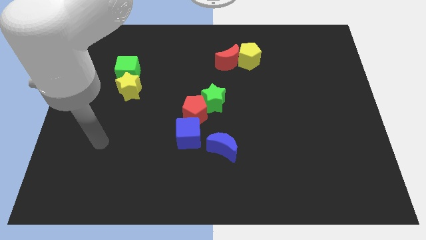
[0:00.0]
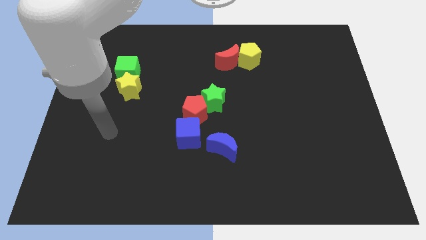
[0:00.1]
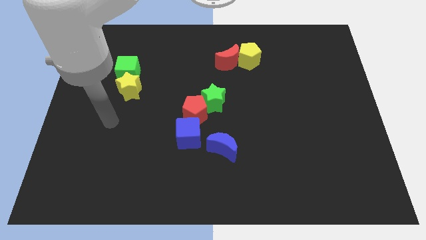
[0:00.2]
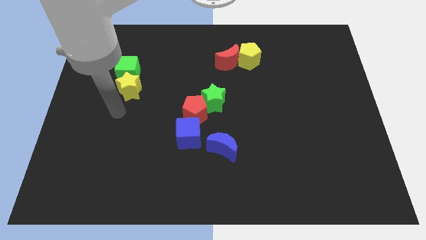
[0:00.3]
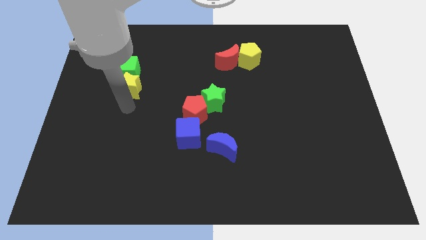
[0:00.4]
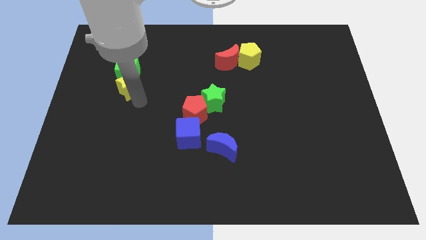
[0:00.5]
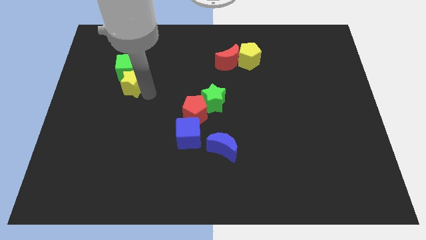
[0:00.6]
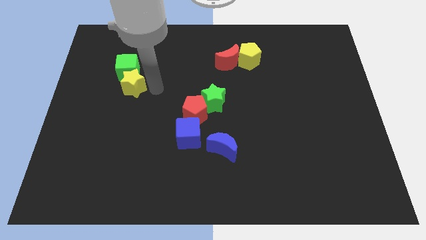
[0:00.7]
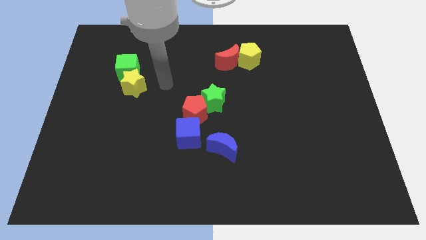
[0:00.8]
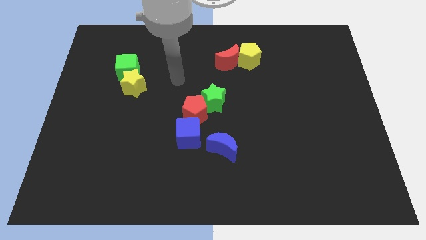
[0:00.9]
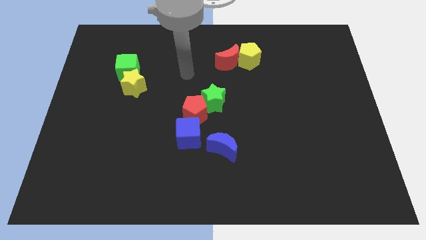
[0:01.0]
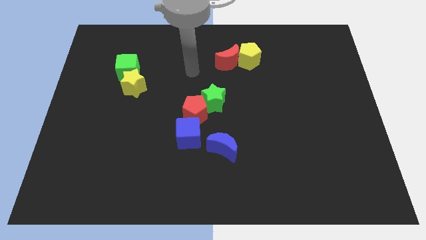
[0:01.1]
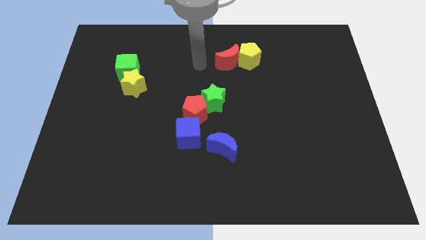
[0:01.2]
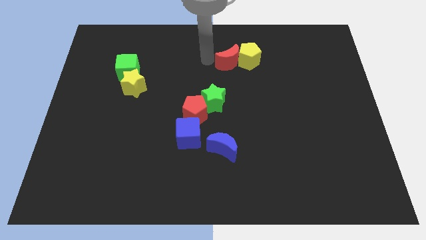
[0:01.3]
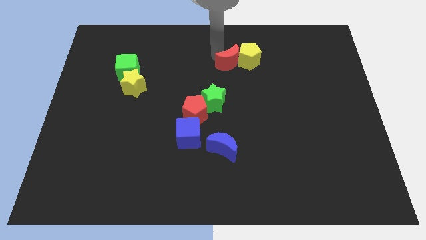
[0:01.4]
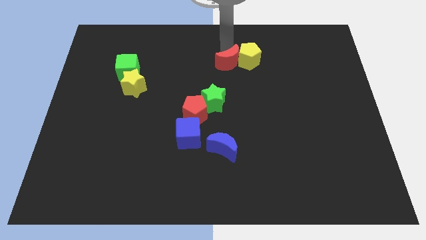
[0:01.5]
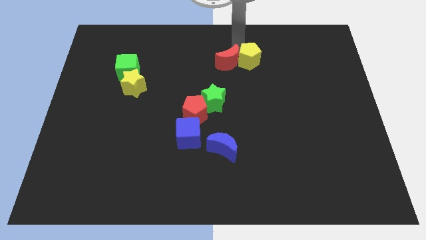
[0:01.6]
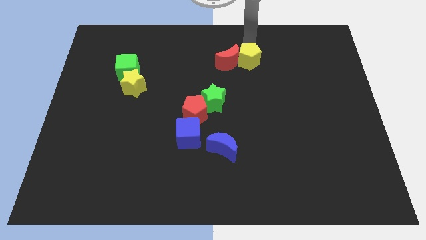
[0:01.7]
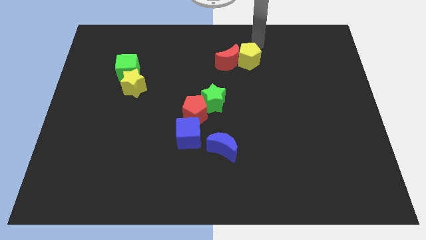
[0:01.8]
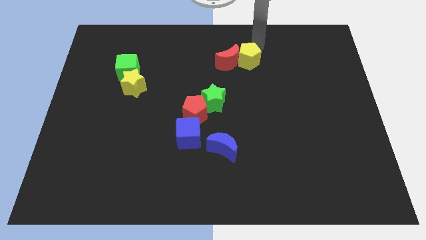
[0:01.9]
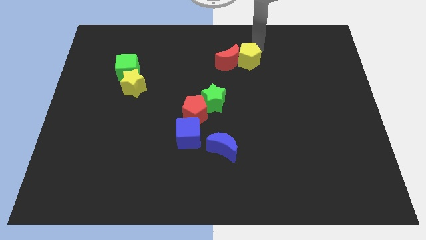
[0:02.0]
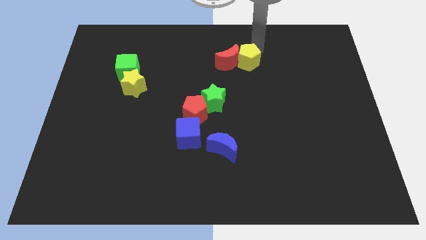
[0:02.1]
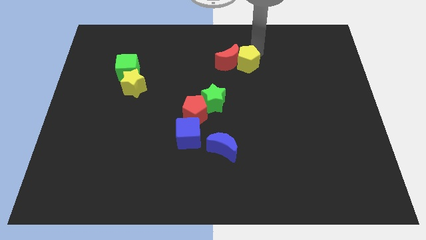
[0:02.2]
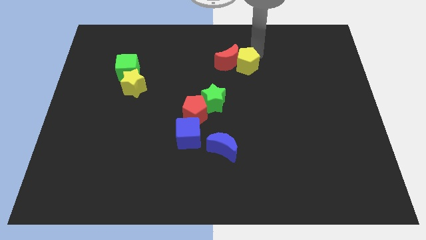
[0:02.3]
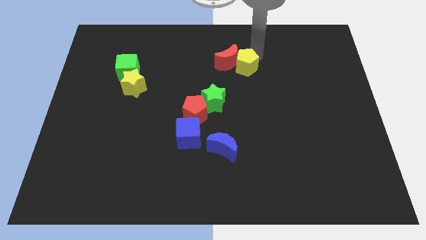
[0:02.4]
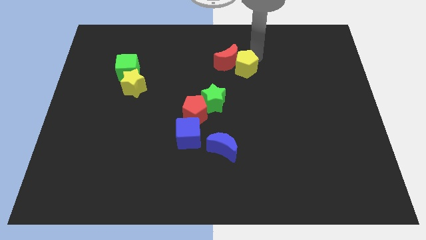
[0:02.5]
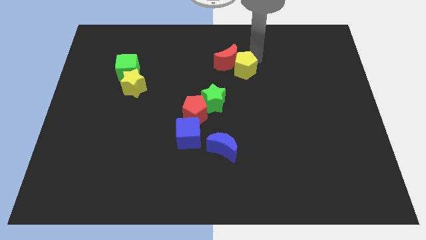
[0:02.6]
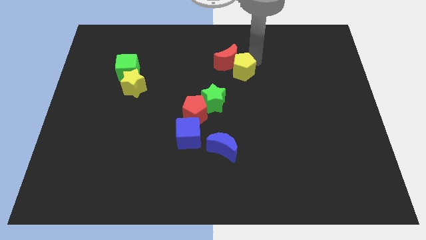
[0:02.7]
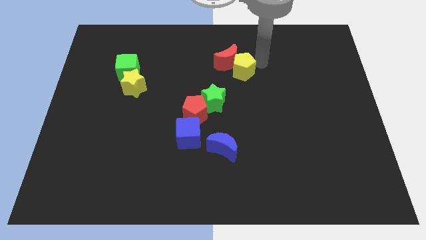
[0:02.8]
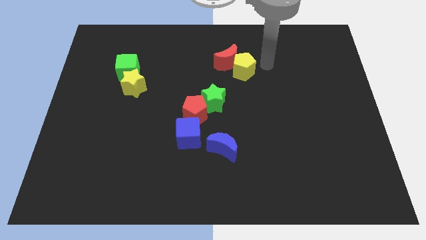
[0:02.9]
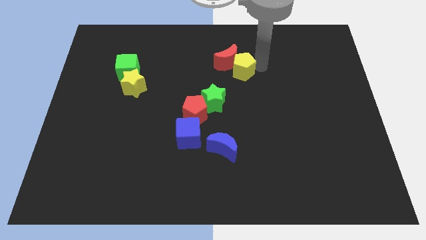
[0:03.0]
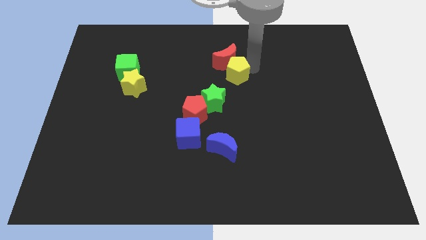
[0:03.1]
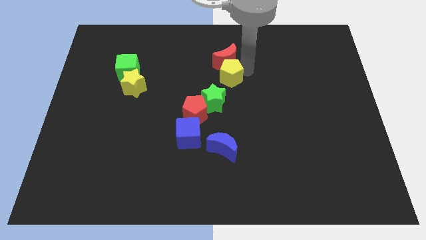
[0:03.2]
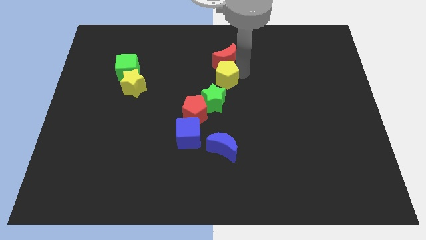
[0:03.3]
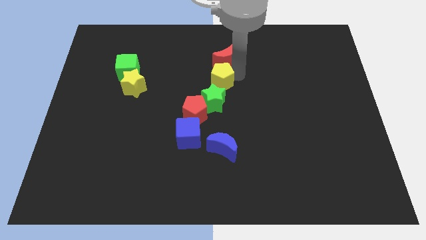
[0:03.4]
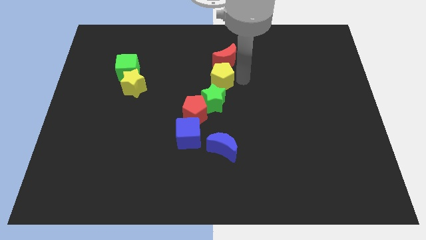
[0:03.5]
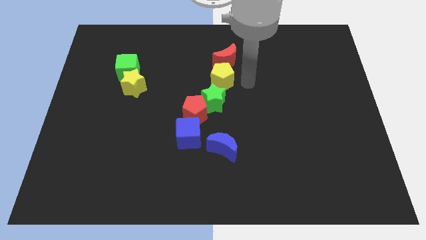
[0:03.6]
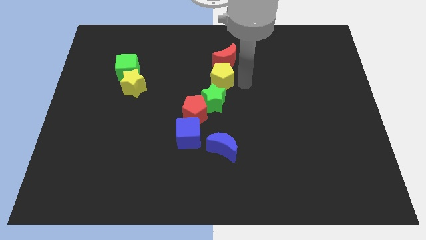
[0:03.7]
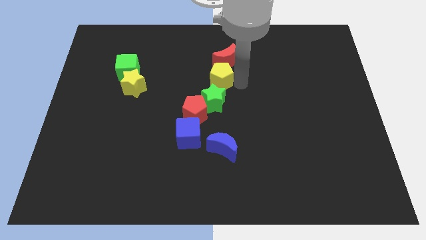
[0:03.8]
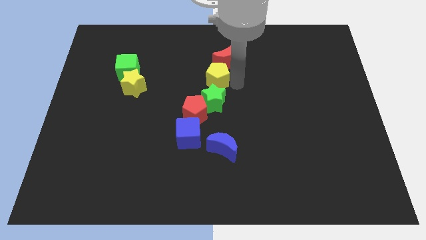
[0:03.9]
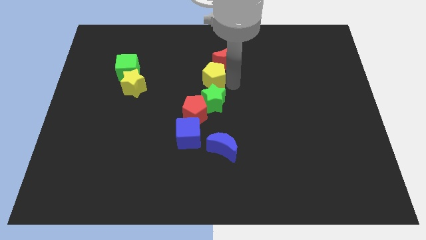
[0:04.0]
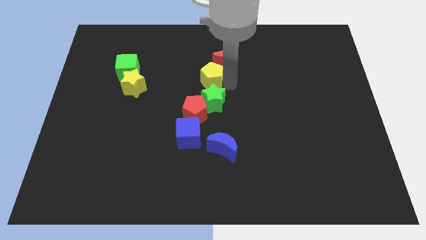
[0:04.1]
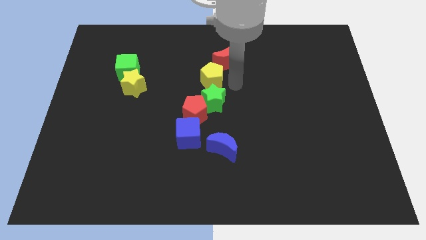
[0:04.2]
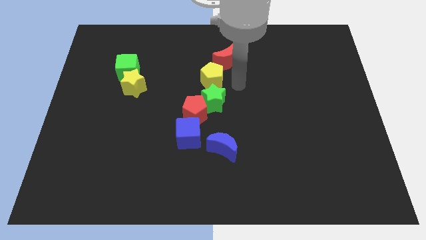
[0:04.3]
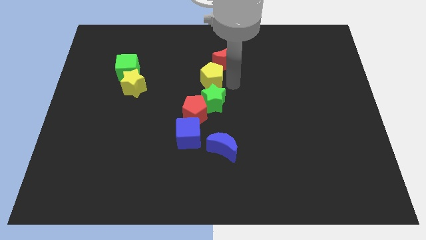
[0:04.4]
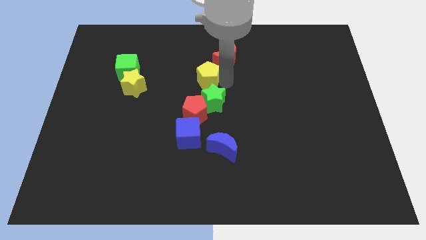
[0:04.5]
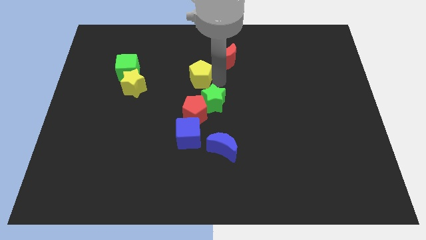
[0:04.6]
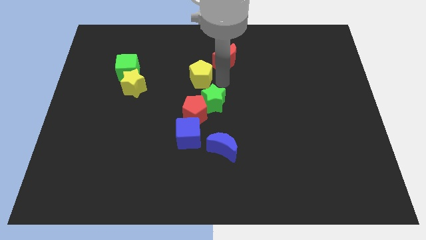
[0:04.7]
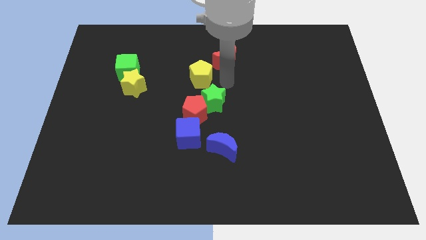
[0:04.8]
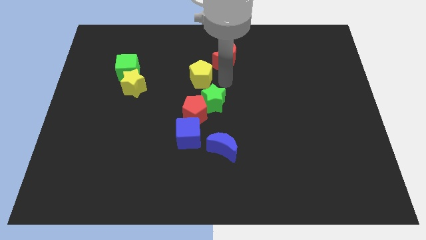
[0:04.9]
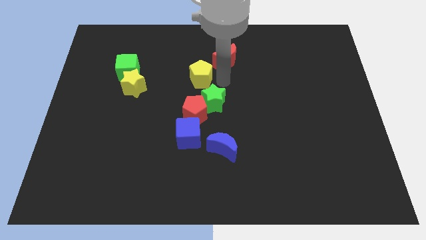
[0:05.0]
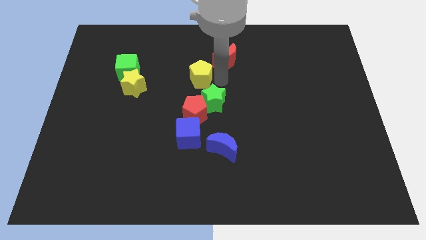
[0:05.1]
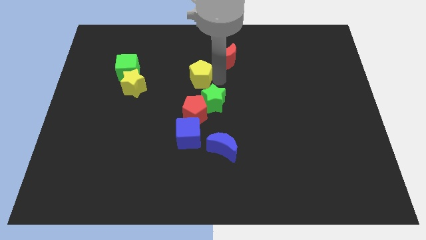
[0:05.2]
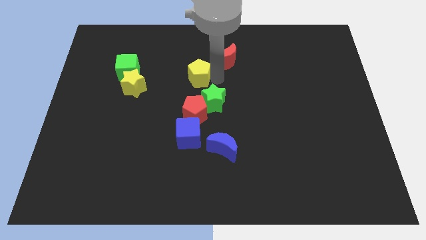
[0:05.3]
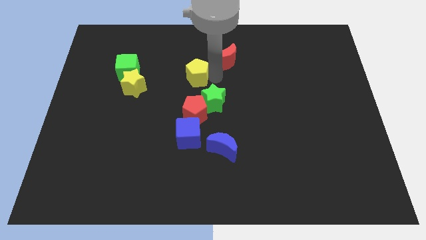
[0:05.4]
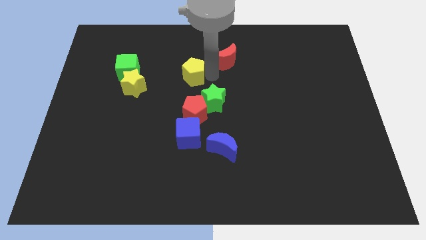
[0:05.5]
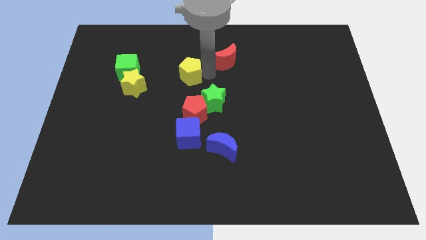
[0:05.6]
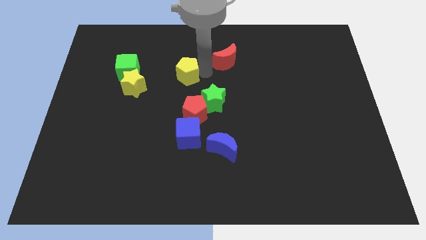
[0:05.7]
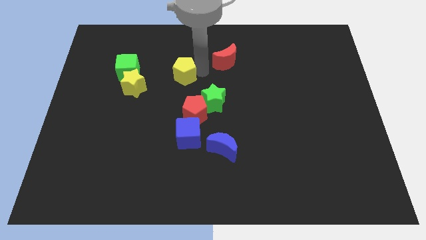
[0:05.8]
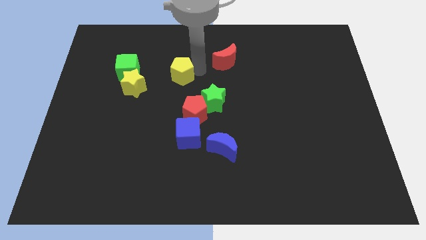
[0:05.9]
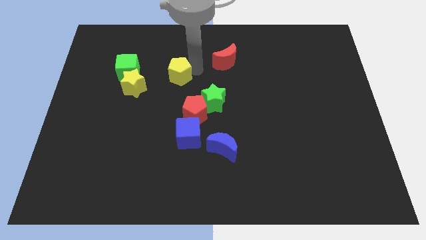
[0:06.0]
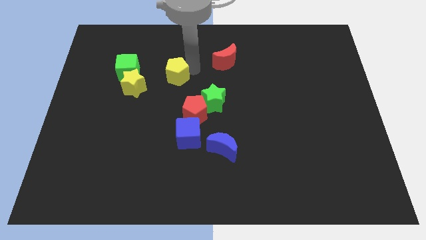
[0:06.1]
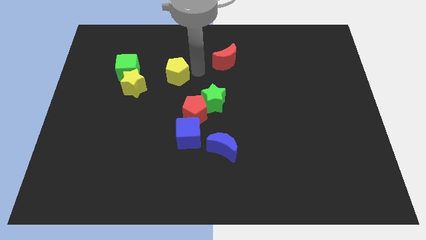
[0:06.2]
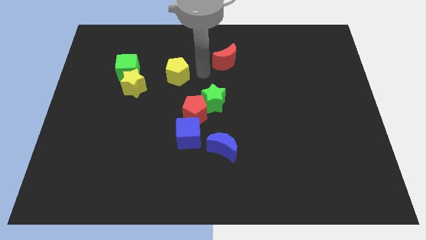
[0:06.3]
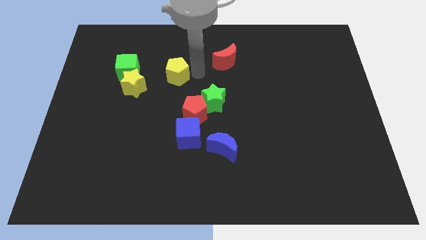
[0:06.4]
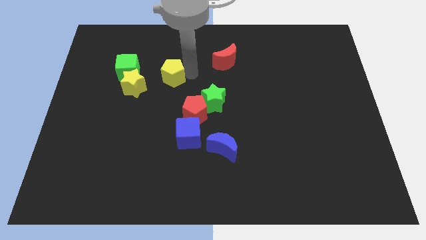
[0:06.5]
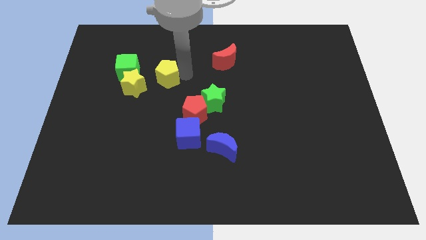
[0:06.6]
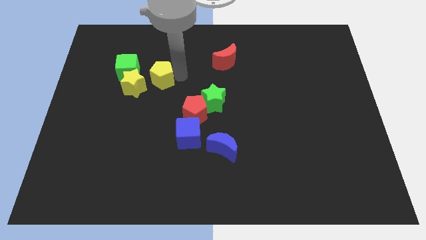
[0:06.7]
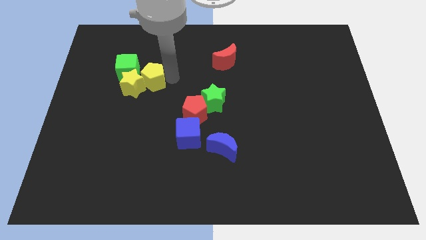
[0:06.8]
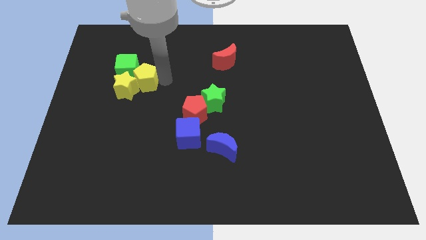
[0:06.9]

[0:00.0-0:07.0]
push the yellow pentagon to the green cube

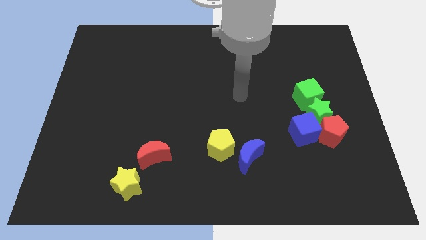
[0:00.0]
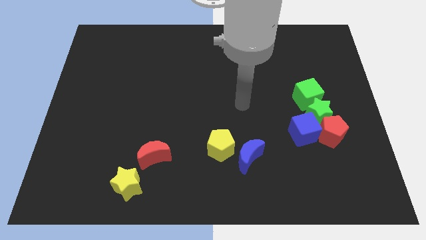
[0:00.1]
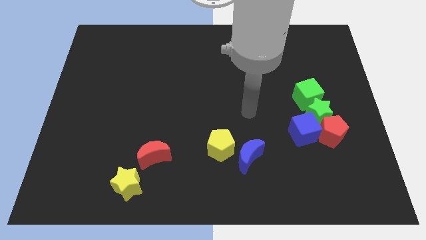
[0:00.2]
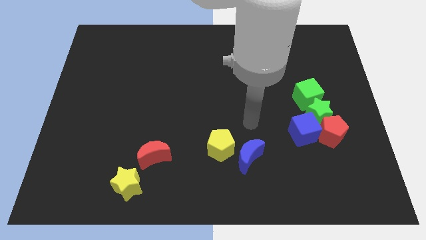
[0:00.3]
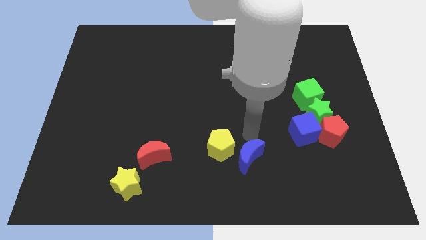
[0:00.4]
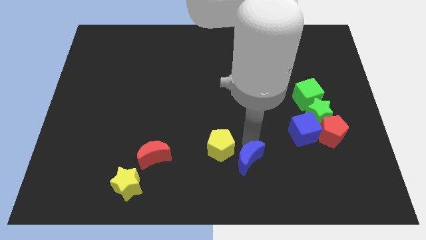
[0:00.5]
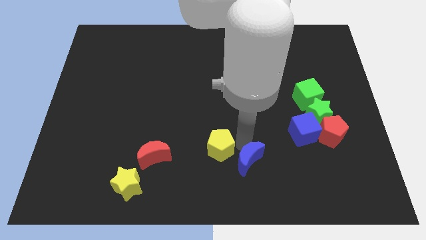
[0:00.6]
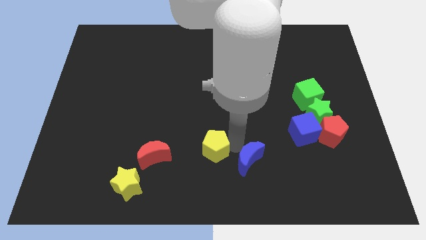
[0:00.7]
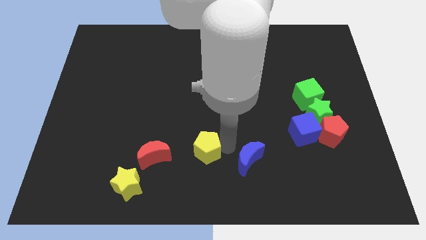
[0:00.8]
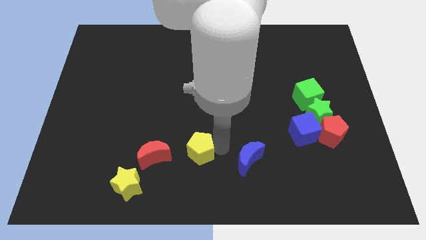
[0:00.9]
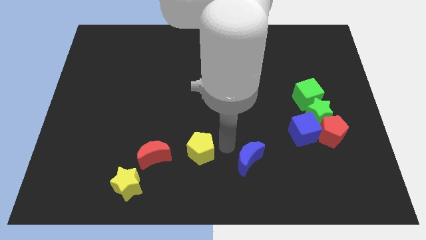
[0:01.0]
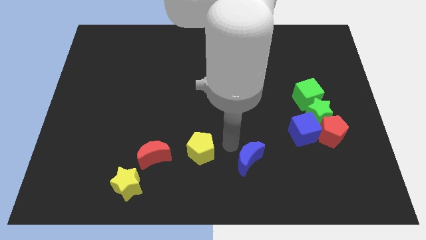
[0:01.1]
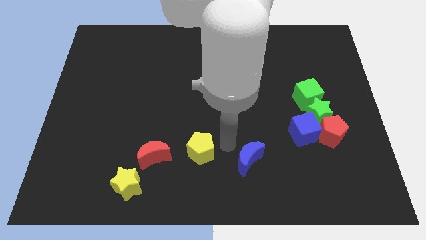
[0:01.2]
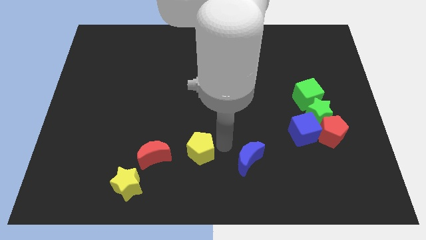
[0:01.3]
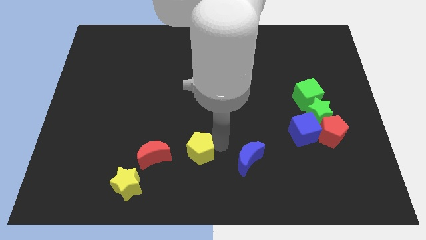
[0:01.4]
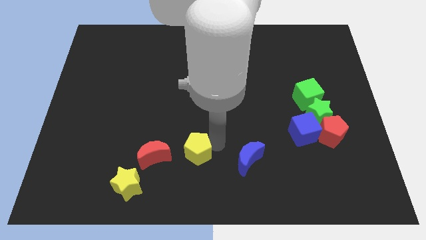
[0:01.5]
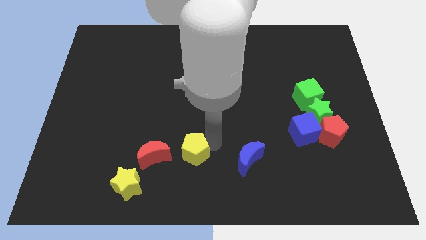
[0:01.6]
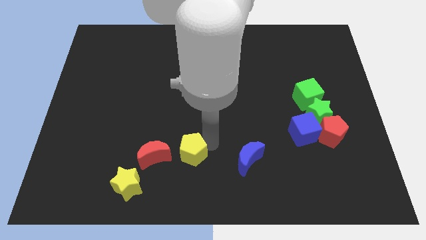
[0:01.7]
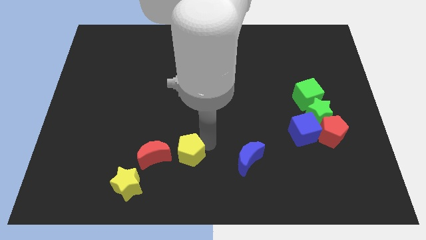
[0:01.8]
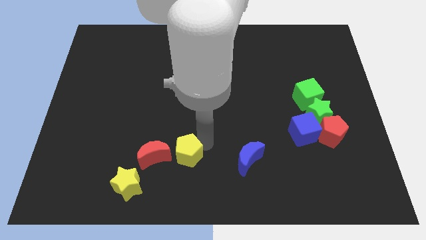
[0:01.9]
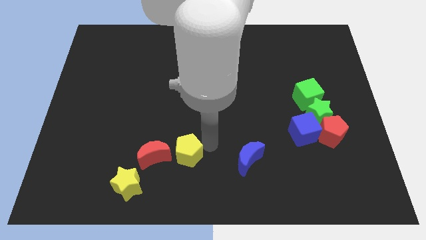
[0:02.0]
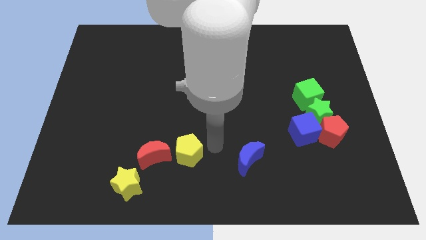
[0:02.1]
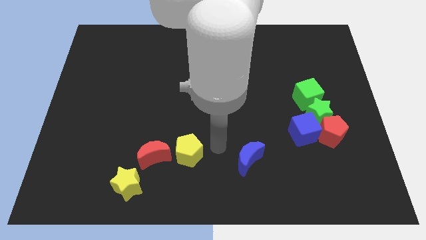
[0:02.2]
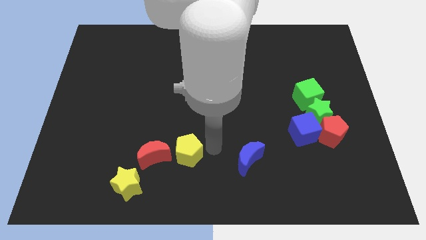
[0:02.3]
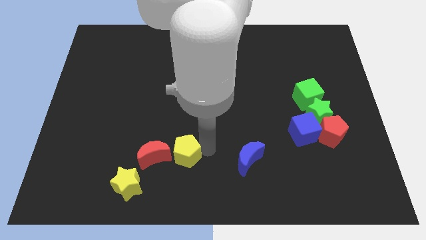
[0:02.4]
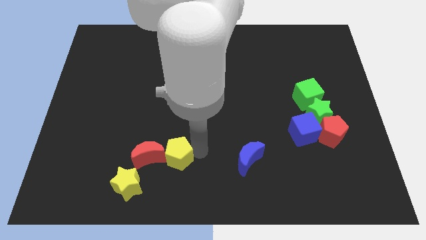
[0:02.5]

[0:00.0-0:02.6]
slide the yellow pentagon towards the red moon
